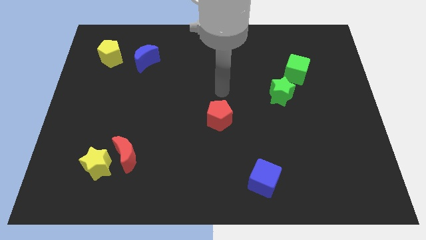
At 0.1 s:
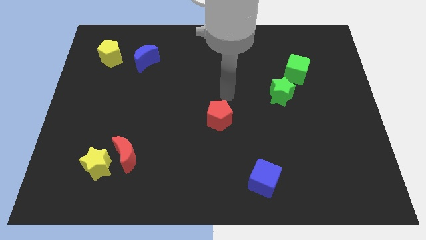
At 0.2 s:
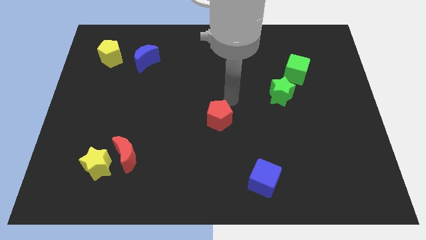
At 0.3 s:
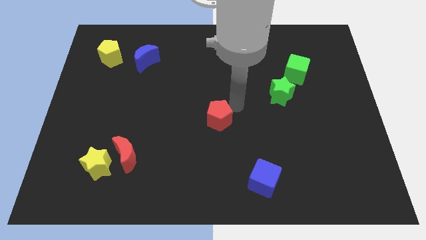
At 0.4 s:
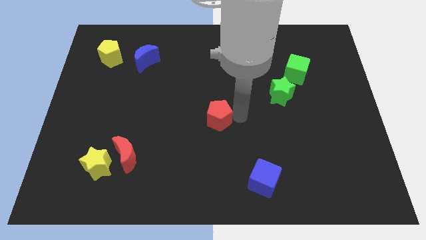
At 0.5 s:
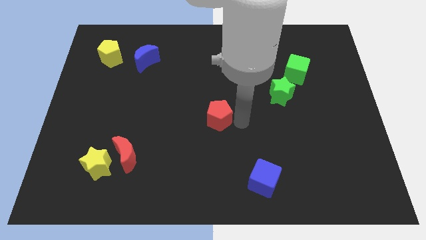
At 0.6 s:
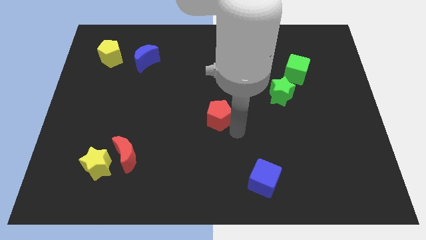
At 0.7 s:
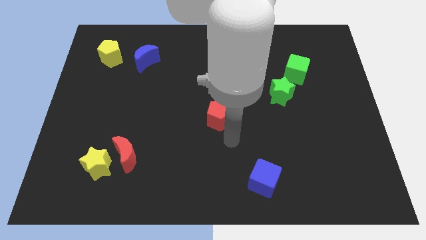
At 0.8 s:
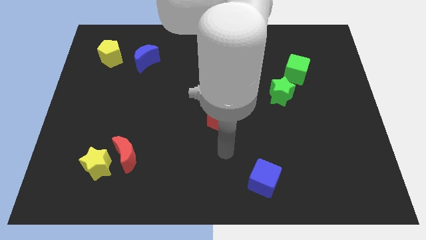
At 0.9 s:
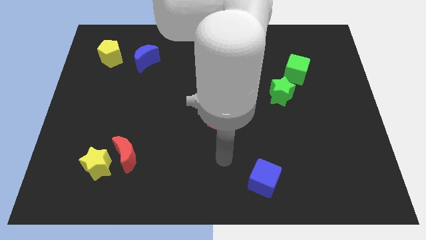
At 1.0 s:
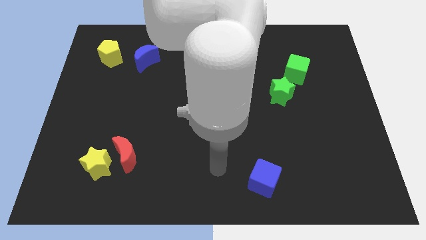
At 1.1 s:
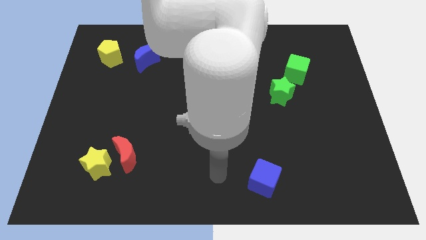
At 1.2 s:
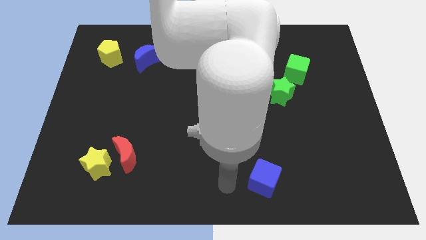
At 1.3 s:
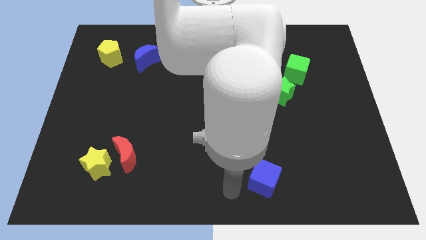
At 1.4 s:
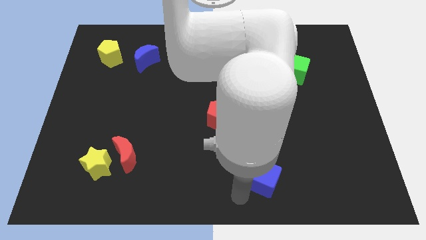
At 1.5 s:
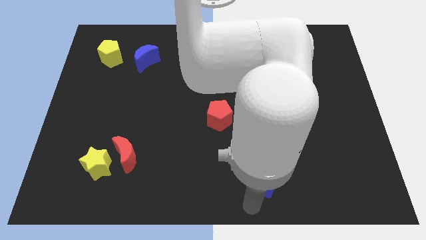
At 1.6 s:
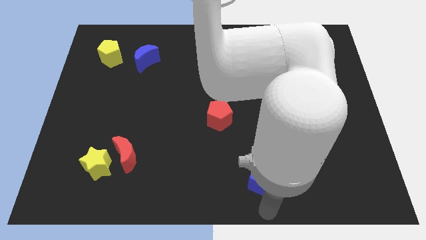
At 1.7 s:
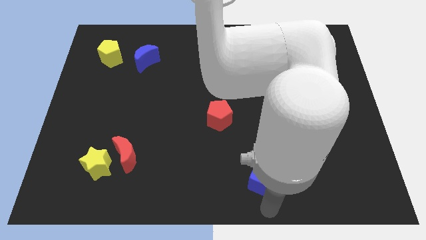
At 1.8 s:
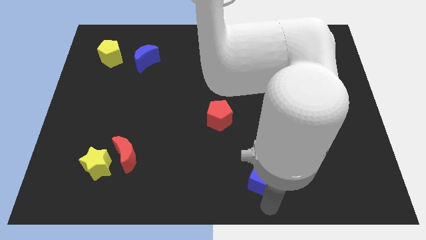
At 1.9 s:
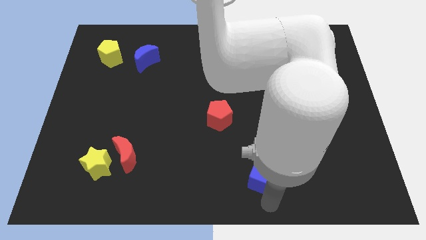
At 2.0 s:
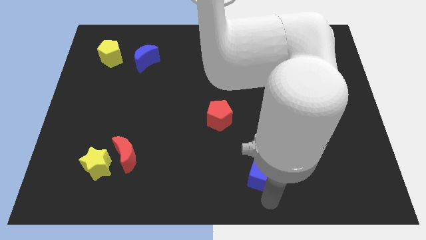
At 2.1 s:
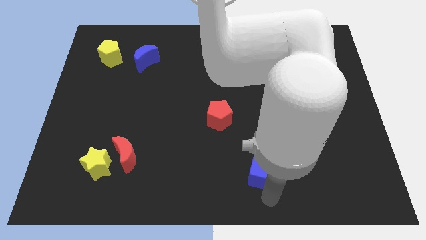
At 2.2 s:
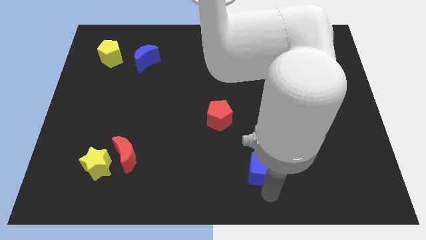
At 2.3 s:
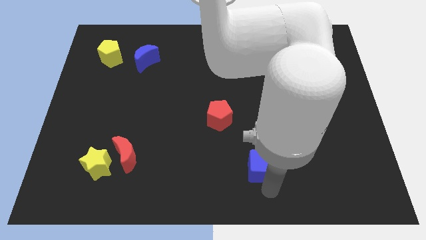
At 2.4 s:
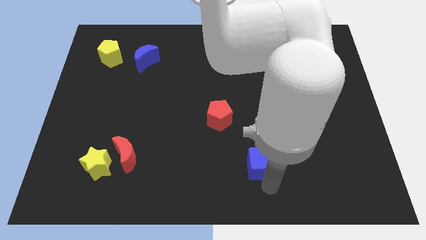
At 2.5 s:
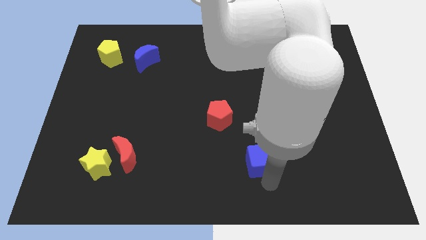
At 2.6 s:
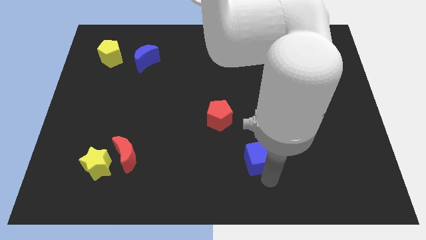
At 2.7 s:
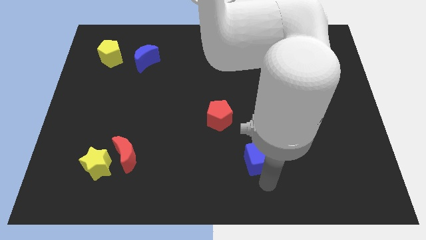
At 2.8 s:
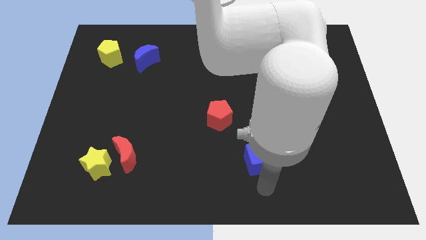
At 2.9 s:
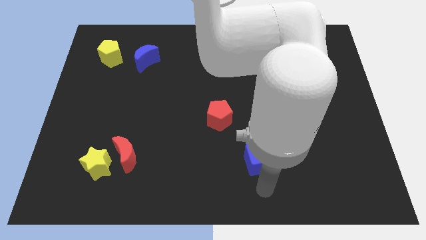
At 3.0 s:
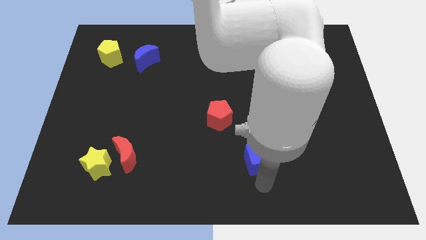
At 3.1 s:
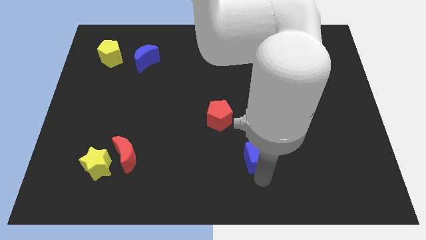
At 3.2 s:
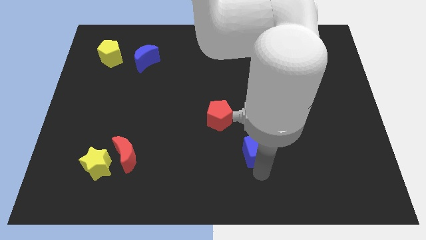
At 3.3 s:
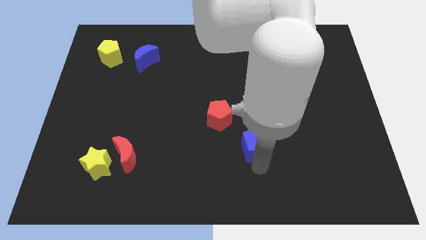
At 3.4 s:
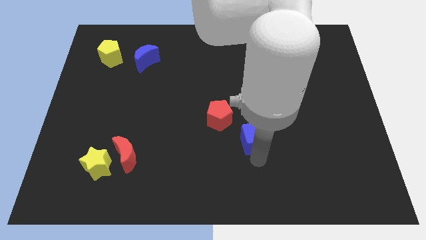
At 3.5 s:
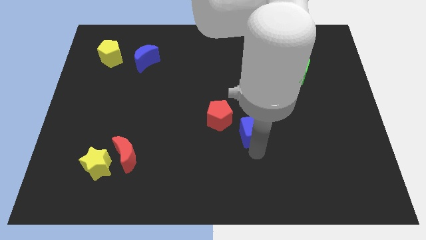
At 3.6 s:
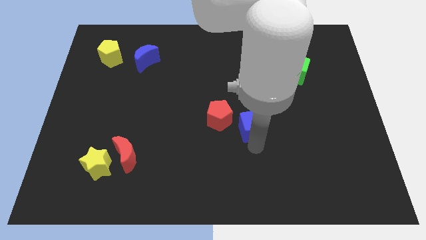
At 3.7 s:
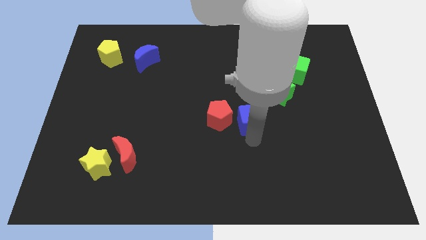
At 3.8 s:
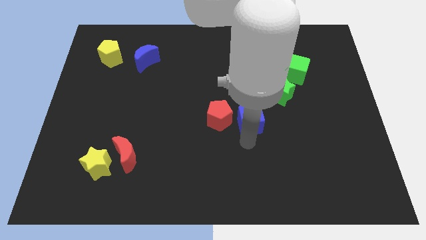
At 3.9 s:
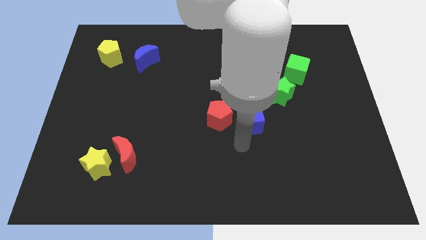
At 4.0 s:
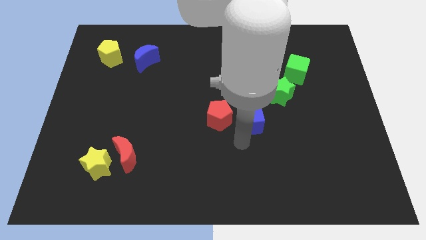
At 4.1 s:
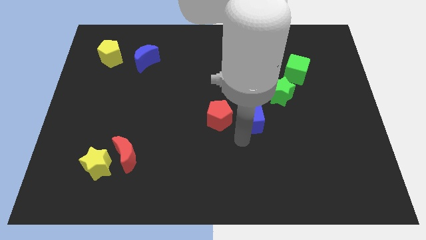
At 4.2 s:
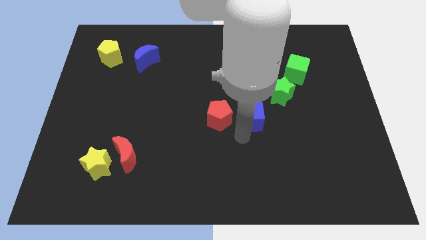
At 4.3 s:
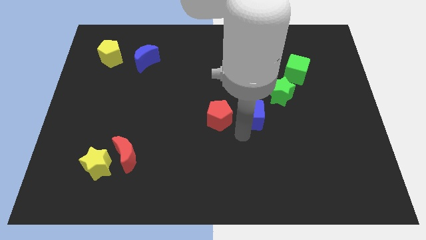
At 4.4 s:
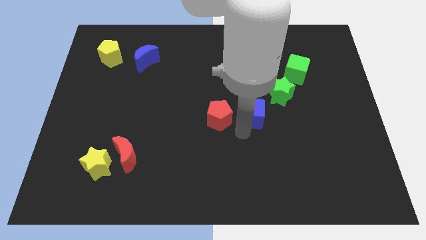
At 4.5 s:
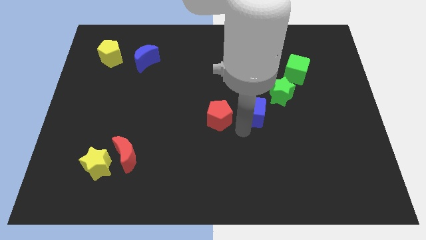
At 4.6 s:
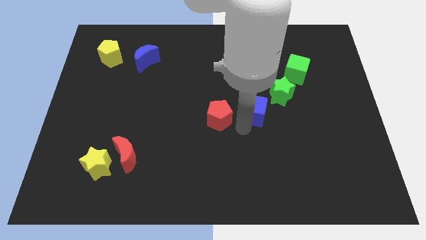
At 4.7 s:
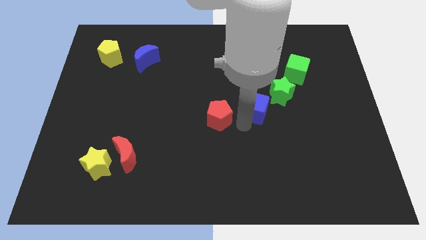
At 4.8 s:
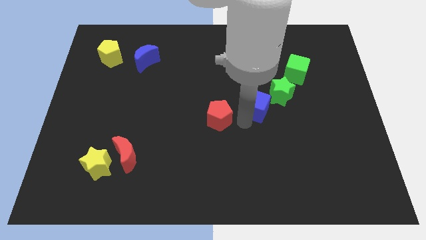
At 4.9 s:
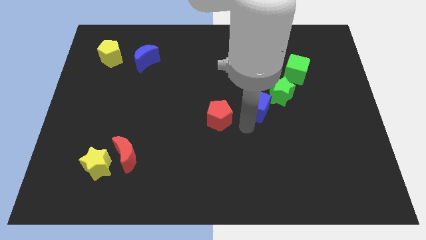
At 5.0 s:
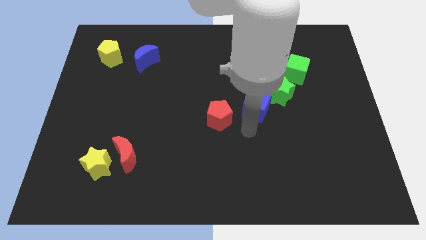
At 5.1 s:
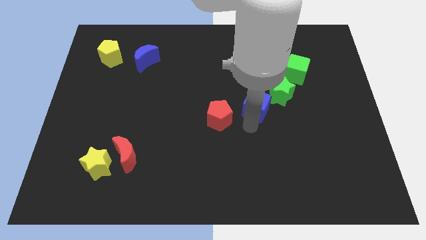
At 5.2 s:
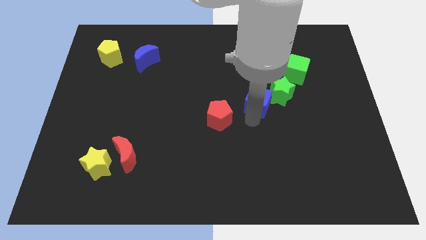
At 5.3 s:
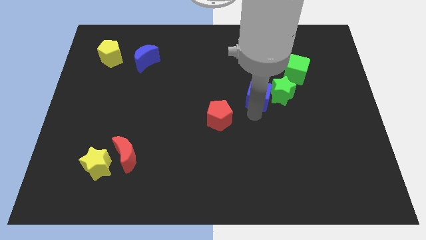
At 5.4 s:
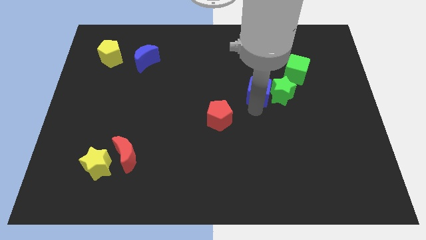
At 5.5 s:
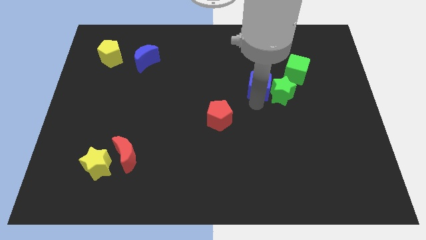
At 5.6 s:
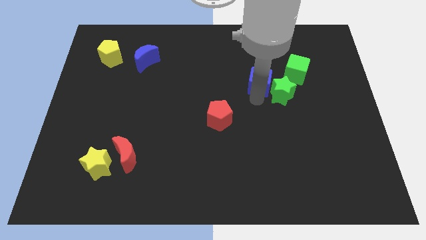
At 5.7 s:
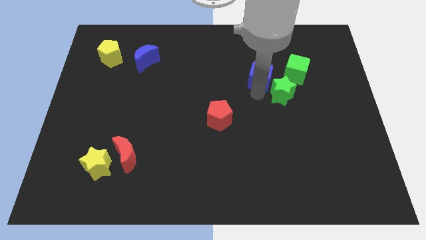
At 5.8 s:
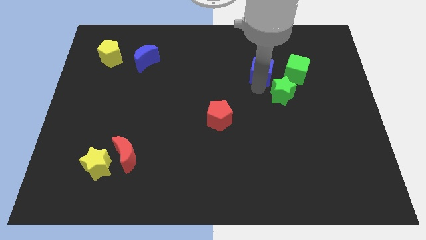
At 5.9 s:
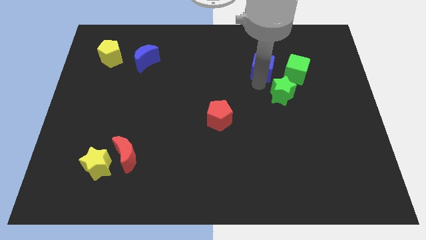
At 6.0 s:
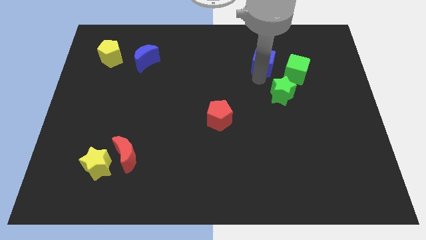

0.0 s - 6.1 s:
slide the blue cube diagonally up and to the left of the green cube

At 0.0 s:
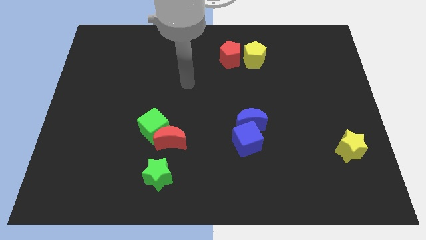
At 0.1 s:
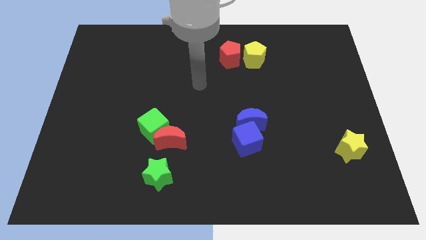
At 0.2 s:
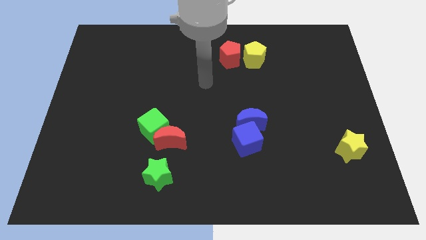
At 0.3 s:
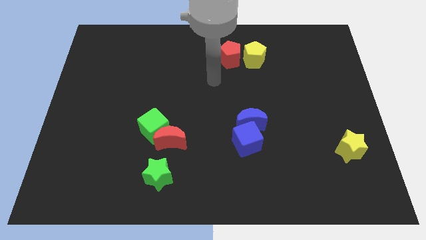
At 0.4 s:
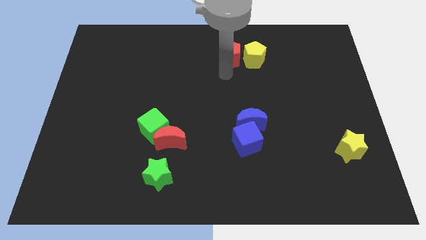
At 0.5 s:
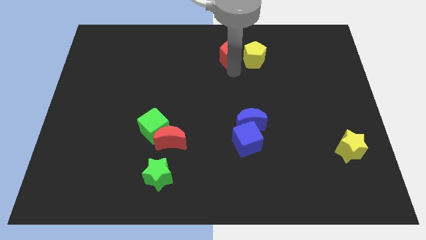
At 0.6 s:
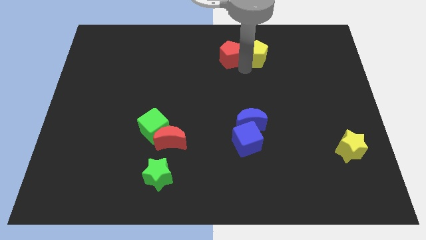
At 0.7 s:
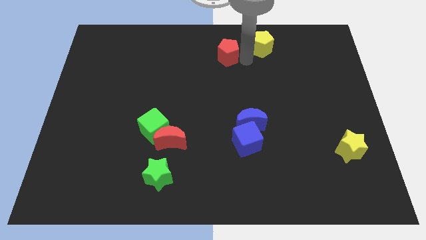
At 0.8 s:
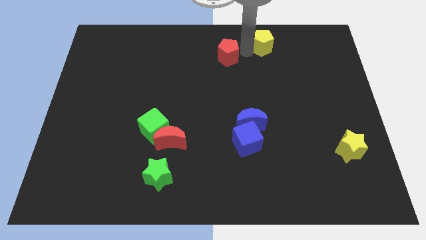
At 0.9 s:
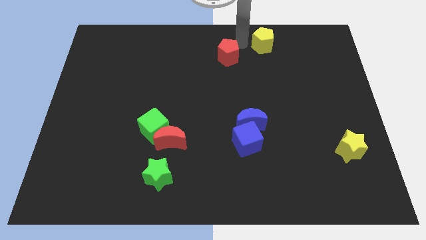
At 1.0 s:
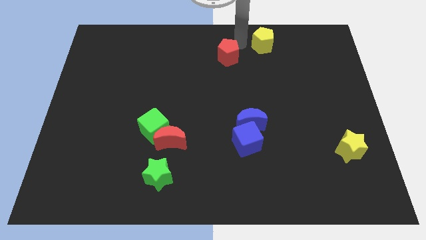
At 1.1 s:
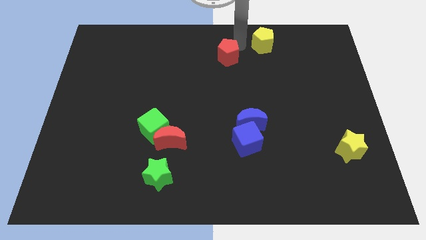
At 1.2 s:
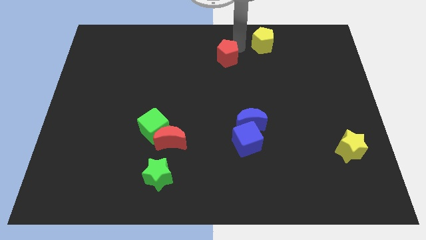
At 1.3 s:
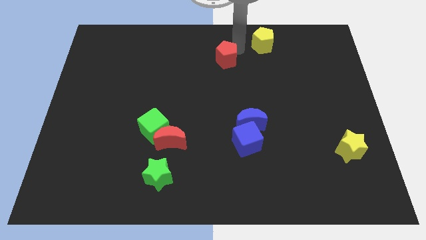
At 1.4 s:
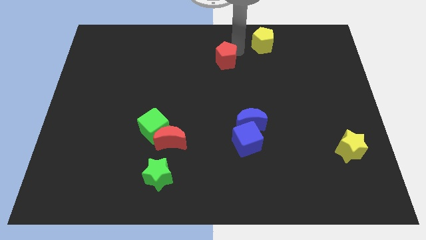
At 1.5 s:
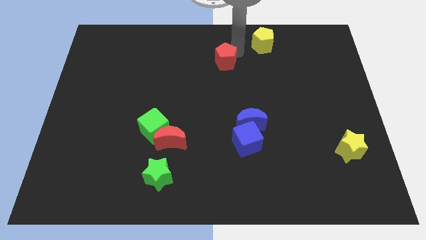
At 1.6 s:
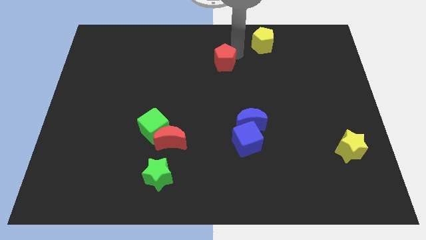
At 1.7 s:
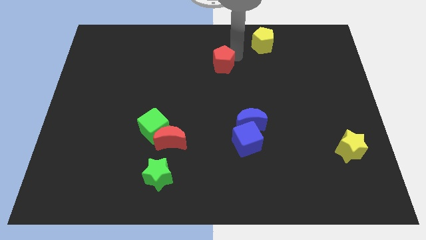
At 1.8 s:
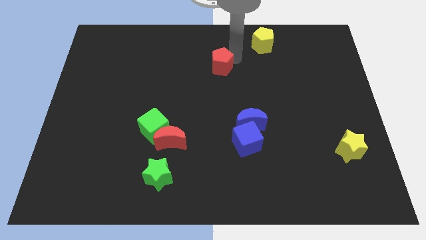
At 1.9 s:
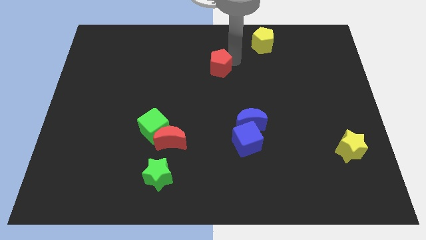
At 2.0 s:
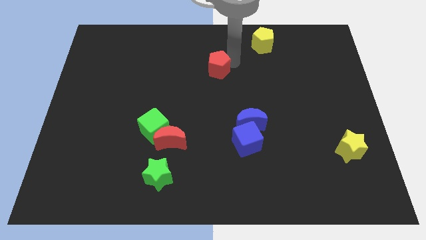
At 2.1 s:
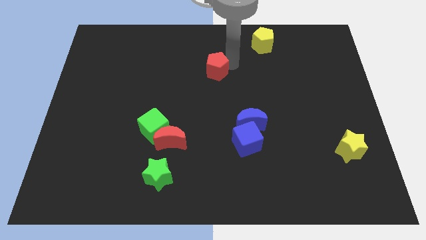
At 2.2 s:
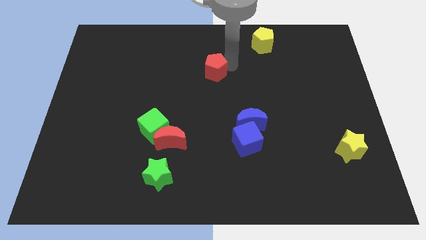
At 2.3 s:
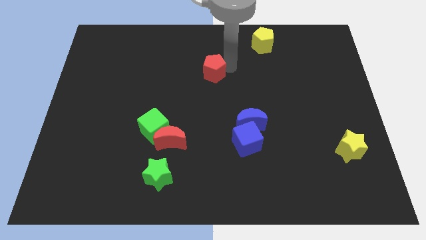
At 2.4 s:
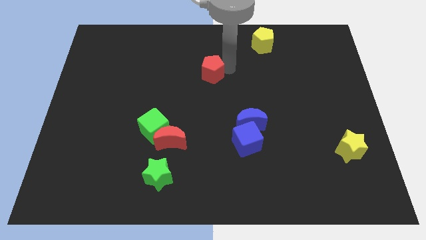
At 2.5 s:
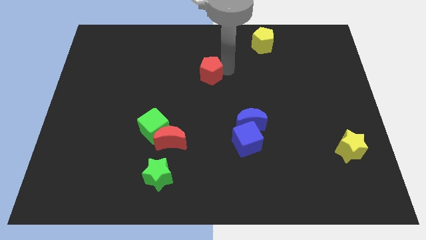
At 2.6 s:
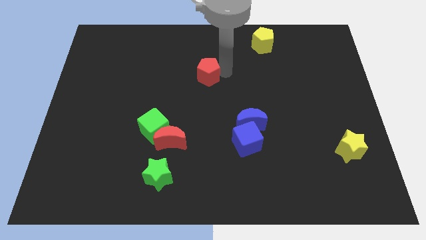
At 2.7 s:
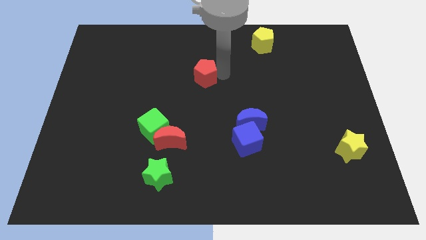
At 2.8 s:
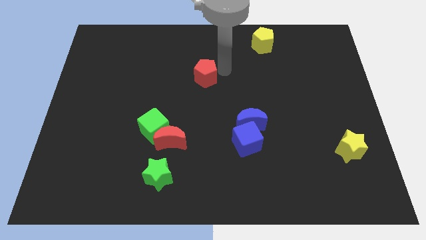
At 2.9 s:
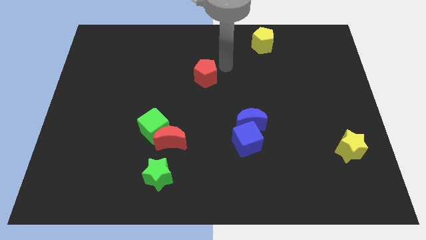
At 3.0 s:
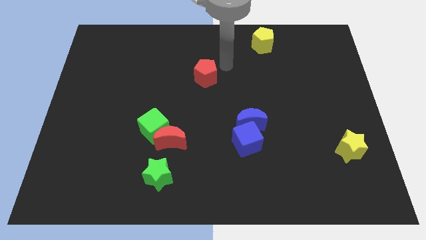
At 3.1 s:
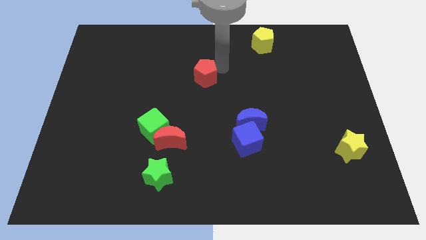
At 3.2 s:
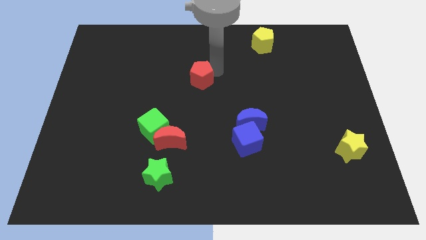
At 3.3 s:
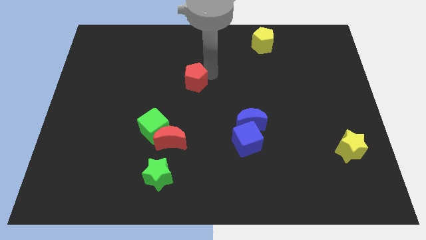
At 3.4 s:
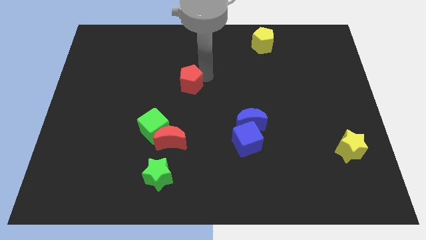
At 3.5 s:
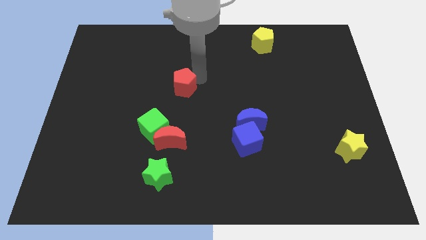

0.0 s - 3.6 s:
put the red pentagon above the red moon
